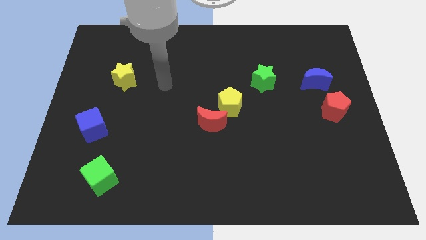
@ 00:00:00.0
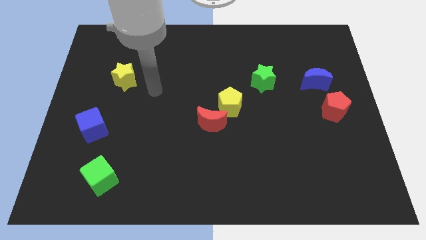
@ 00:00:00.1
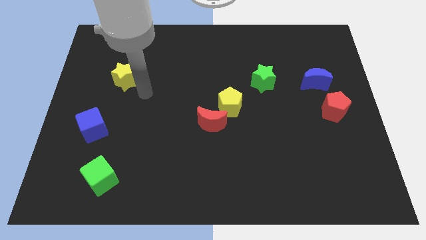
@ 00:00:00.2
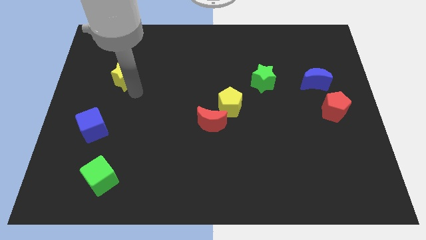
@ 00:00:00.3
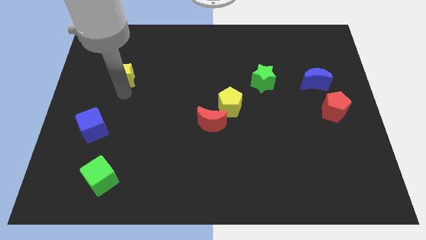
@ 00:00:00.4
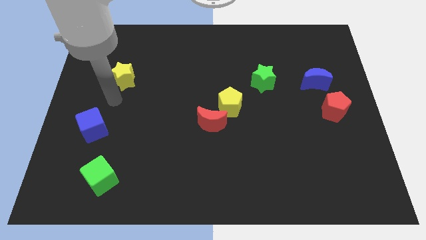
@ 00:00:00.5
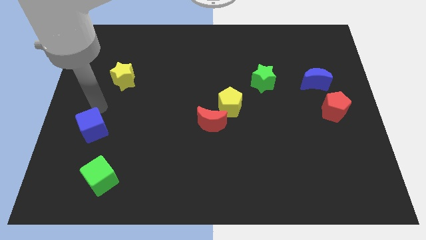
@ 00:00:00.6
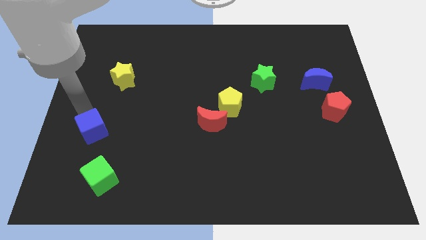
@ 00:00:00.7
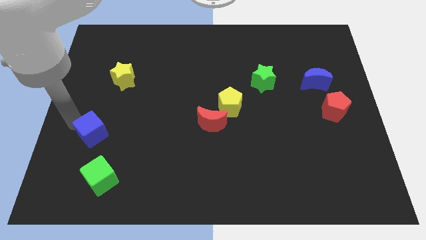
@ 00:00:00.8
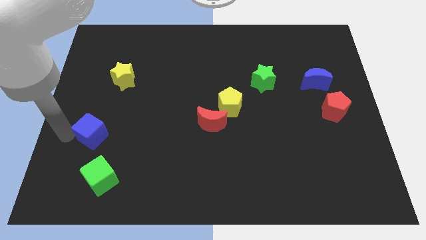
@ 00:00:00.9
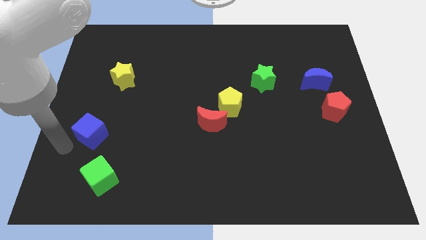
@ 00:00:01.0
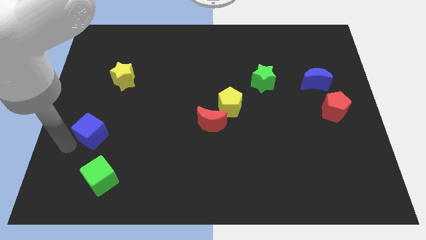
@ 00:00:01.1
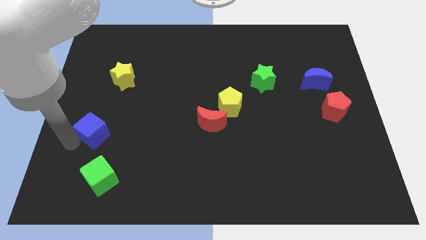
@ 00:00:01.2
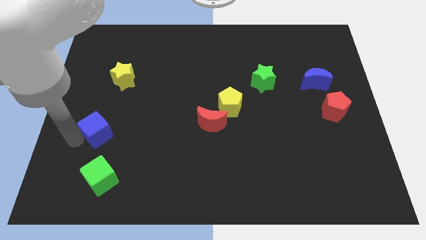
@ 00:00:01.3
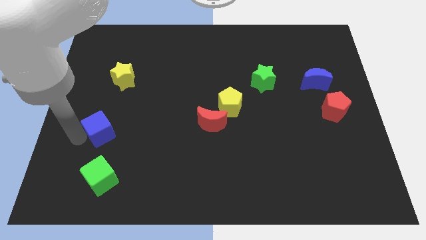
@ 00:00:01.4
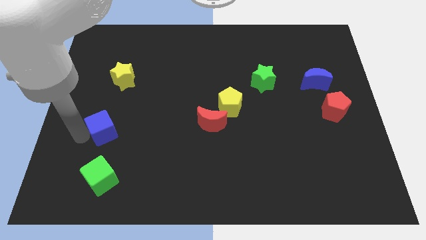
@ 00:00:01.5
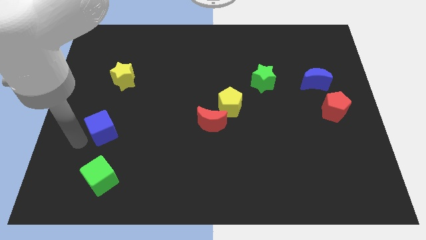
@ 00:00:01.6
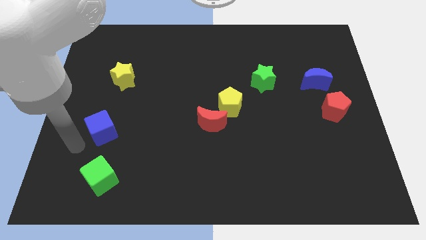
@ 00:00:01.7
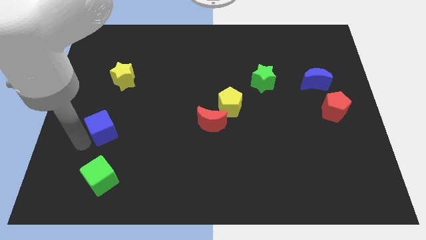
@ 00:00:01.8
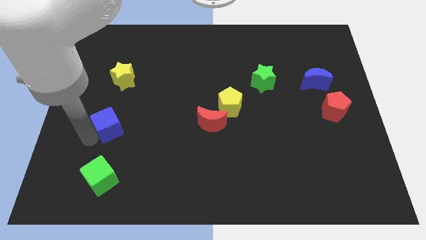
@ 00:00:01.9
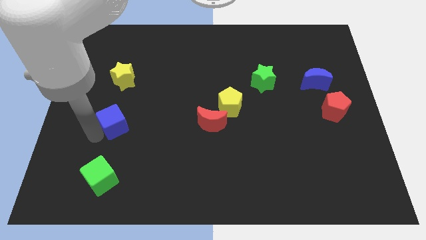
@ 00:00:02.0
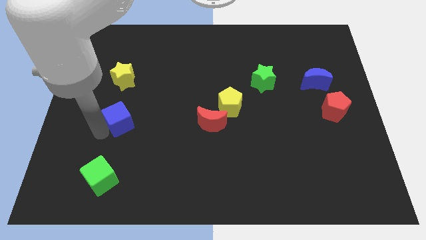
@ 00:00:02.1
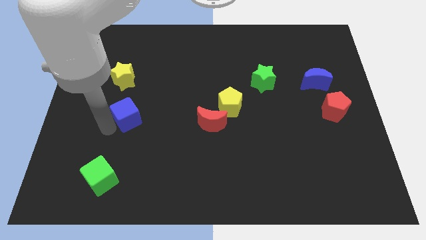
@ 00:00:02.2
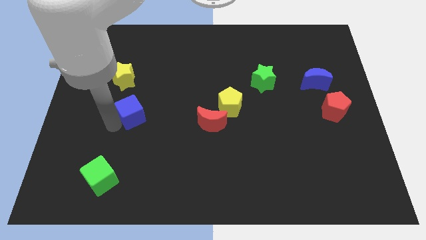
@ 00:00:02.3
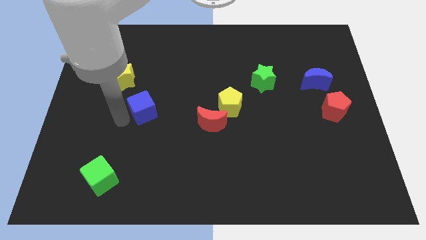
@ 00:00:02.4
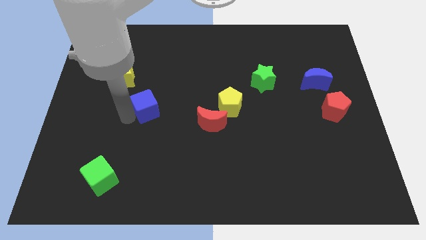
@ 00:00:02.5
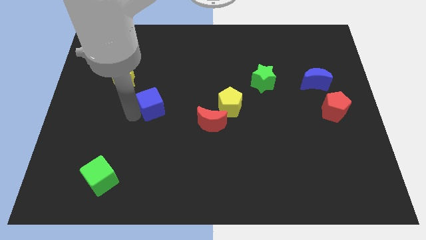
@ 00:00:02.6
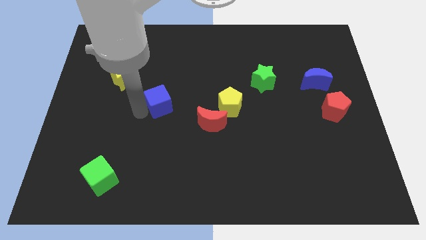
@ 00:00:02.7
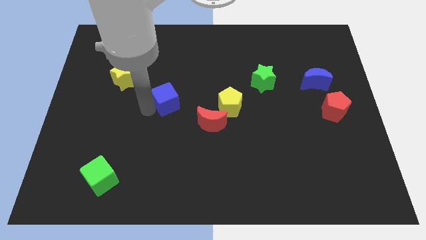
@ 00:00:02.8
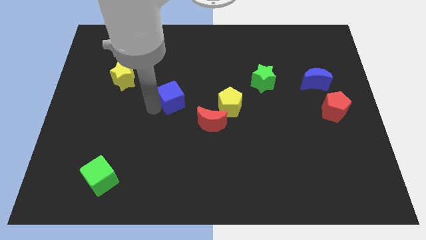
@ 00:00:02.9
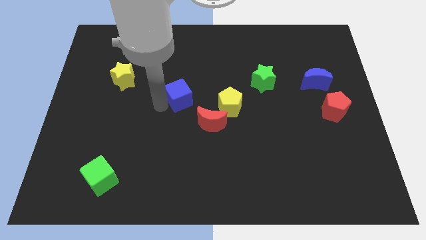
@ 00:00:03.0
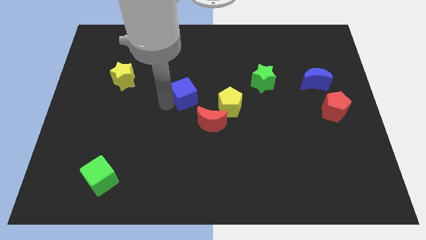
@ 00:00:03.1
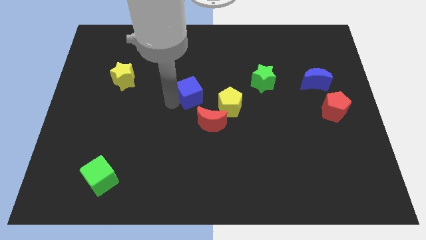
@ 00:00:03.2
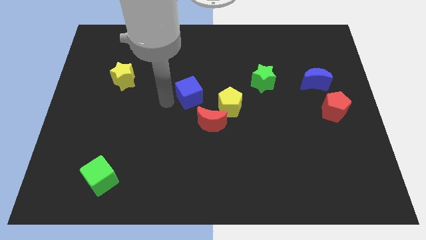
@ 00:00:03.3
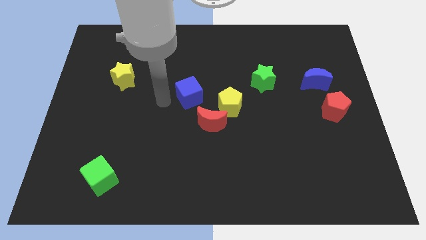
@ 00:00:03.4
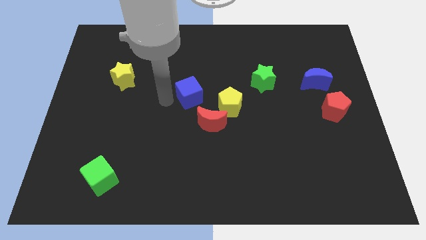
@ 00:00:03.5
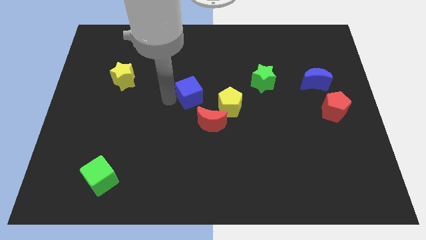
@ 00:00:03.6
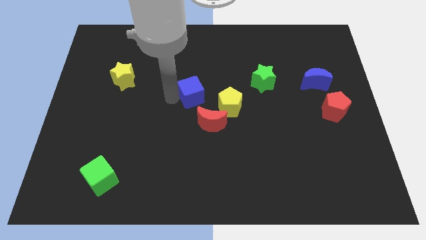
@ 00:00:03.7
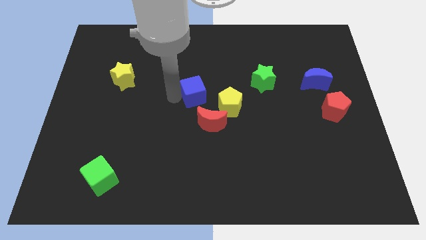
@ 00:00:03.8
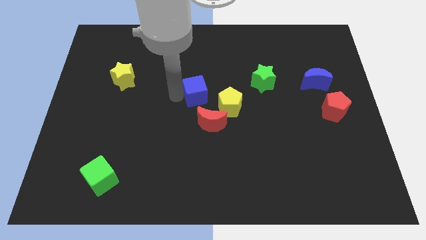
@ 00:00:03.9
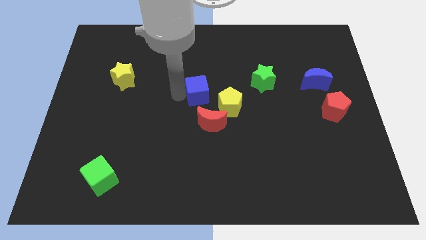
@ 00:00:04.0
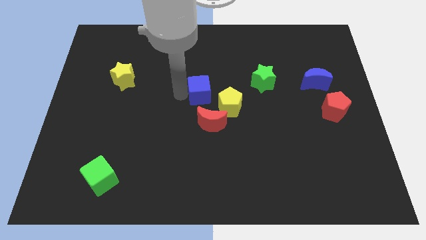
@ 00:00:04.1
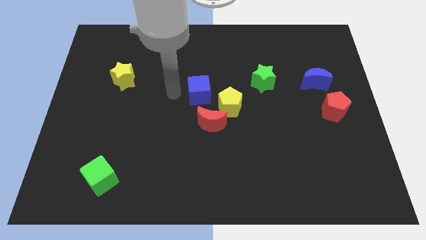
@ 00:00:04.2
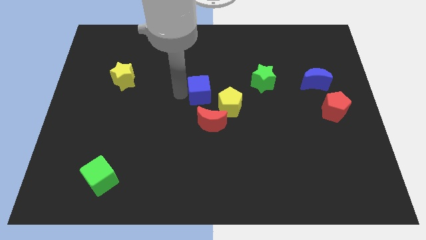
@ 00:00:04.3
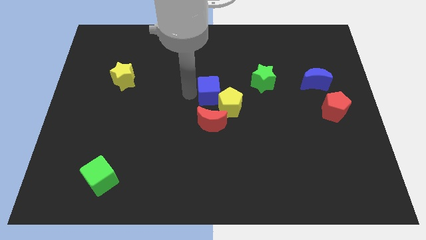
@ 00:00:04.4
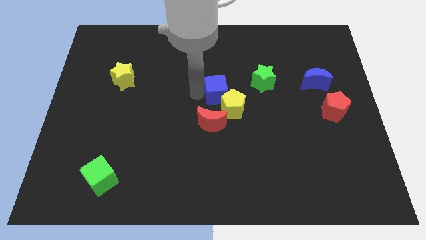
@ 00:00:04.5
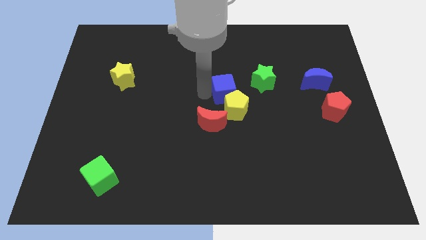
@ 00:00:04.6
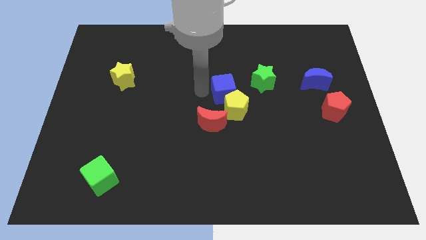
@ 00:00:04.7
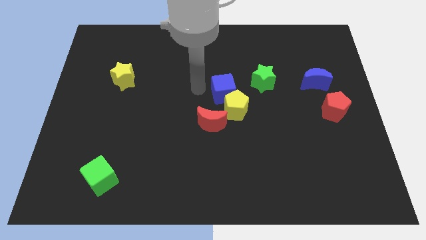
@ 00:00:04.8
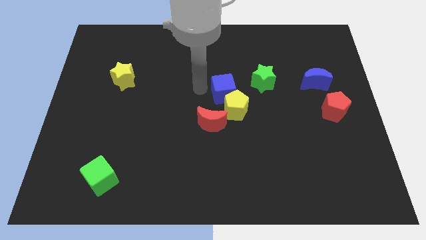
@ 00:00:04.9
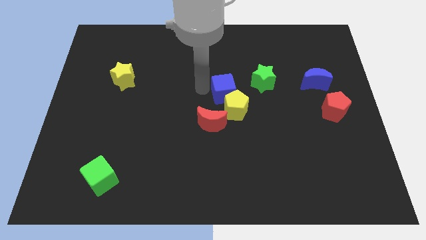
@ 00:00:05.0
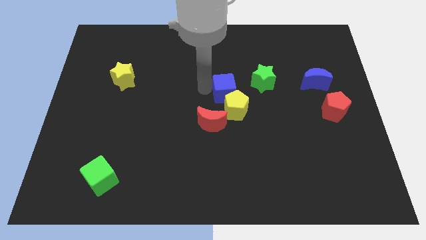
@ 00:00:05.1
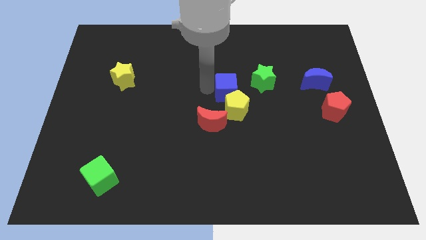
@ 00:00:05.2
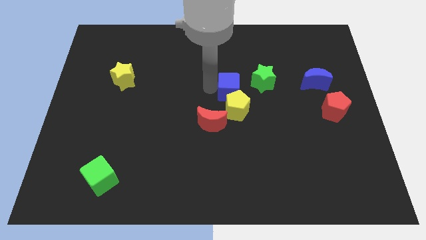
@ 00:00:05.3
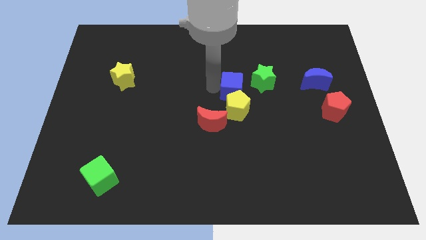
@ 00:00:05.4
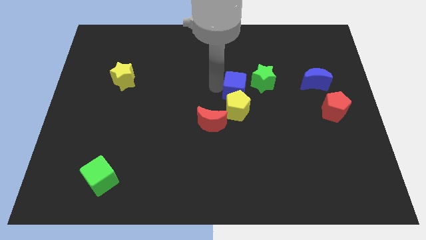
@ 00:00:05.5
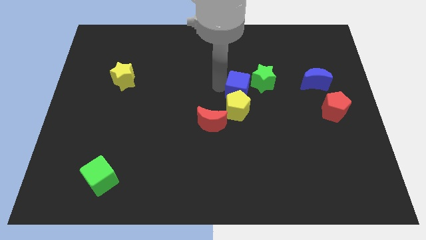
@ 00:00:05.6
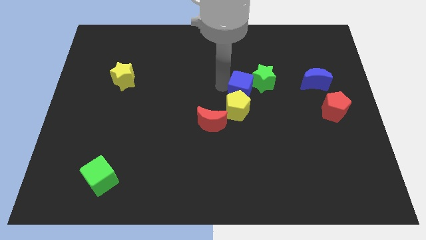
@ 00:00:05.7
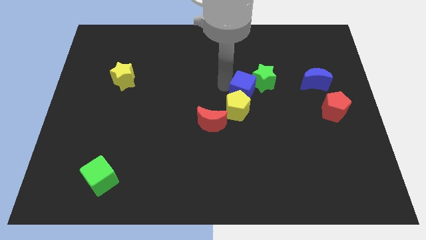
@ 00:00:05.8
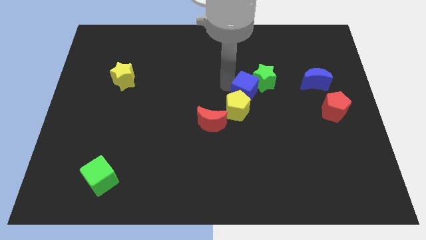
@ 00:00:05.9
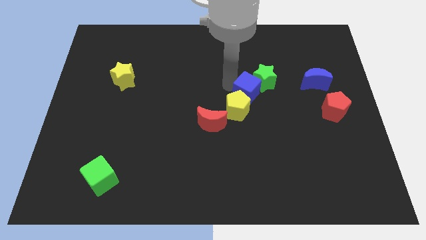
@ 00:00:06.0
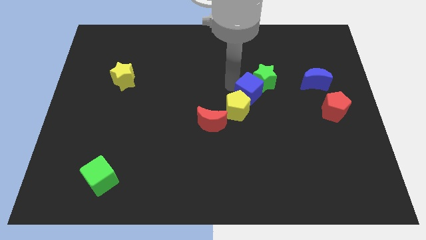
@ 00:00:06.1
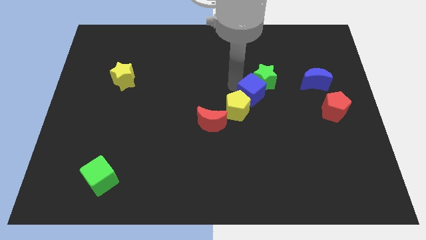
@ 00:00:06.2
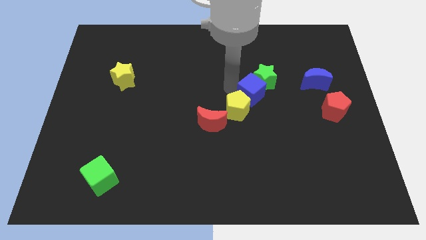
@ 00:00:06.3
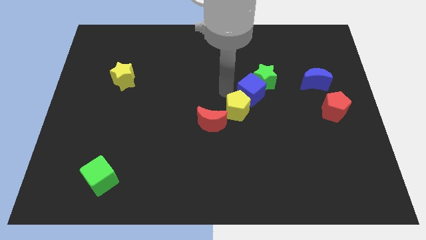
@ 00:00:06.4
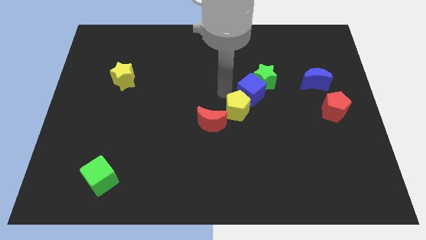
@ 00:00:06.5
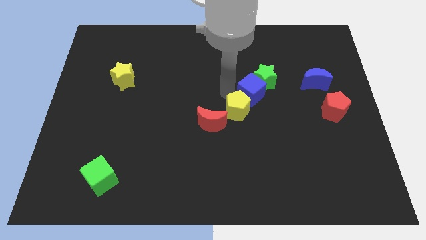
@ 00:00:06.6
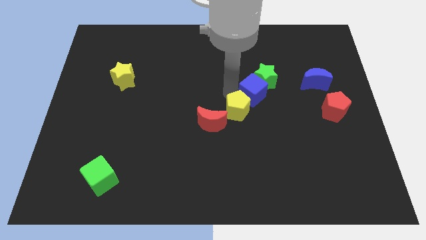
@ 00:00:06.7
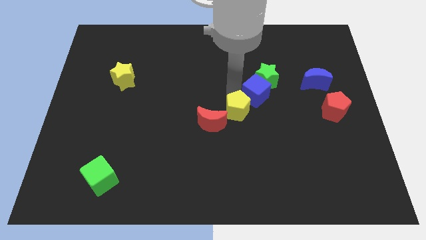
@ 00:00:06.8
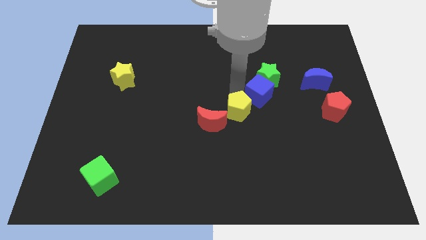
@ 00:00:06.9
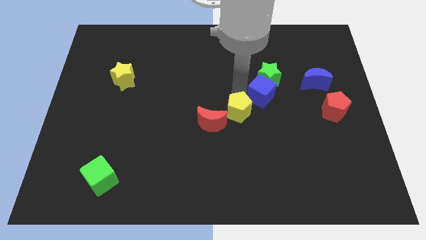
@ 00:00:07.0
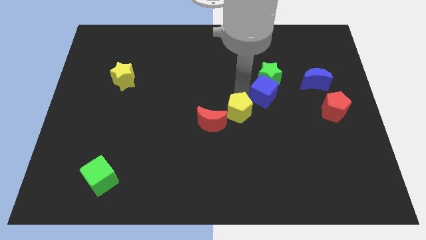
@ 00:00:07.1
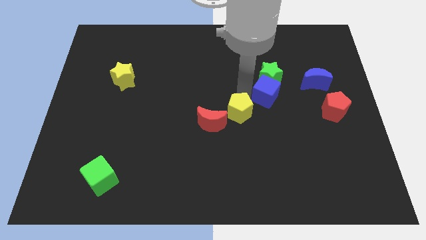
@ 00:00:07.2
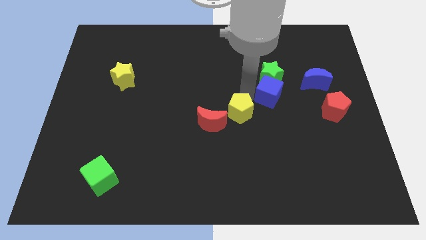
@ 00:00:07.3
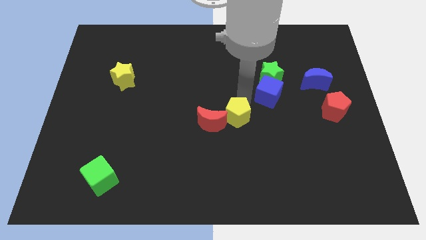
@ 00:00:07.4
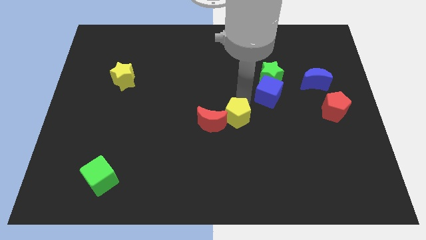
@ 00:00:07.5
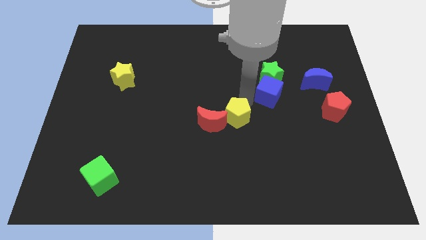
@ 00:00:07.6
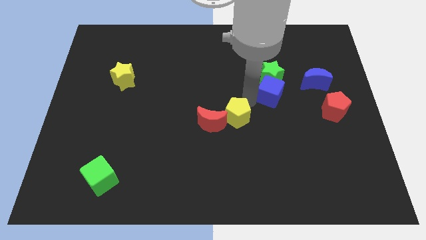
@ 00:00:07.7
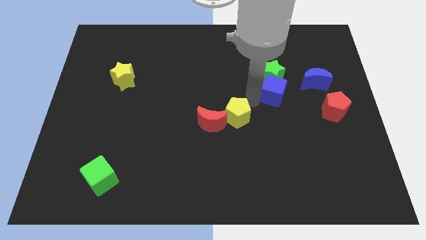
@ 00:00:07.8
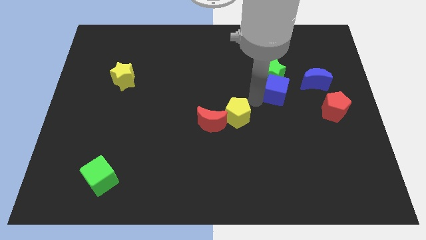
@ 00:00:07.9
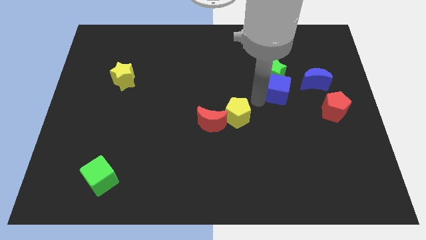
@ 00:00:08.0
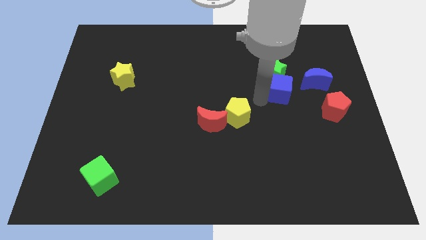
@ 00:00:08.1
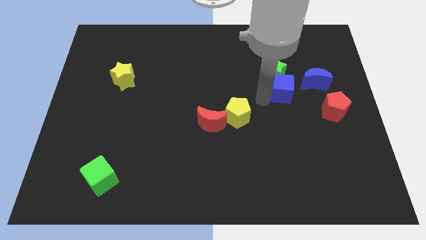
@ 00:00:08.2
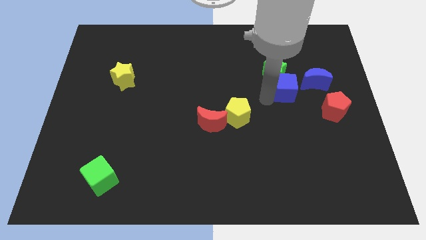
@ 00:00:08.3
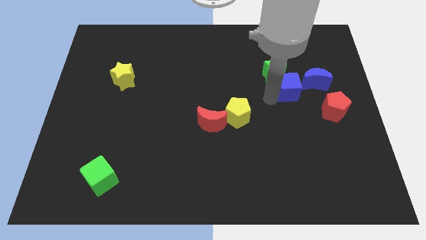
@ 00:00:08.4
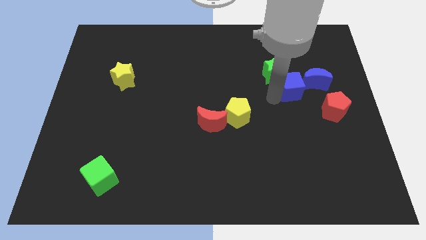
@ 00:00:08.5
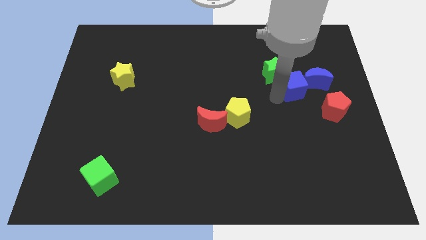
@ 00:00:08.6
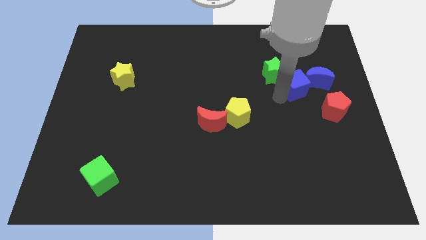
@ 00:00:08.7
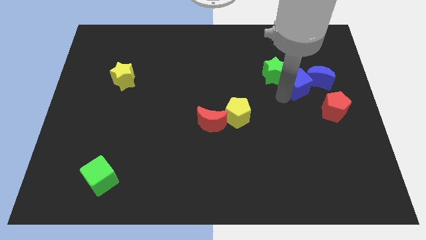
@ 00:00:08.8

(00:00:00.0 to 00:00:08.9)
push the blue cube to the blue moon
